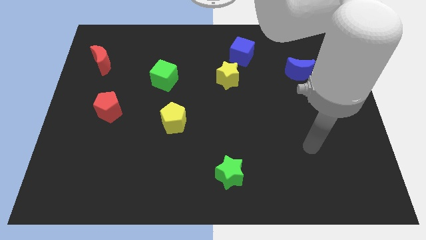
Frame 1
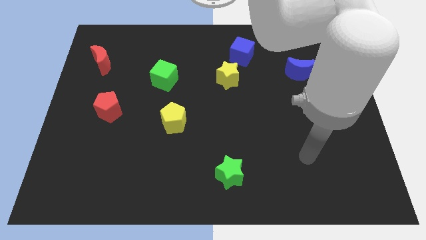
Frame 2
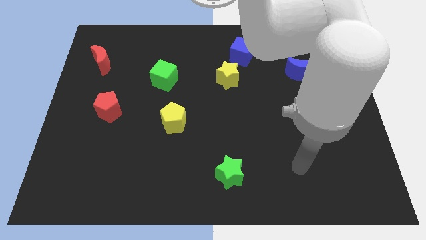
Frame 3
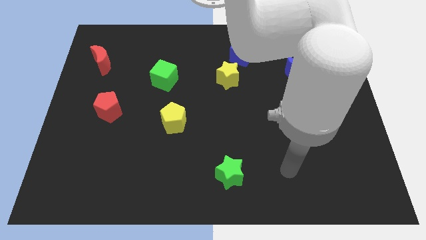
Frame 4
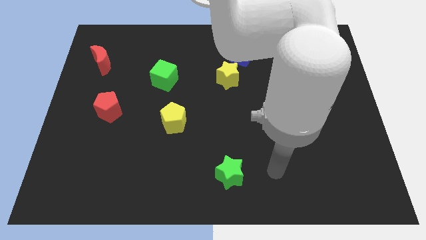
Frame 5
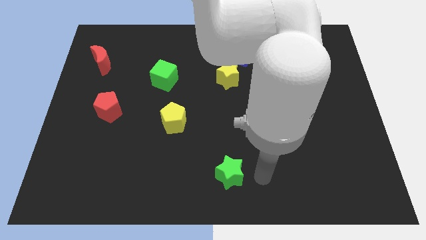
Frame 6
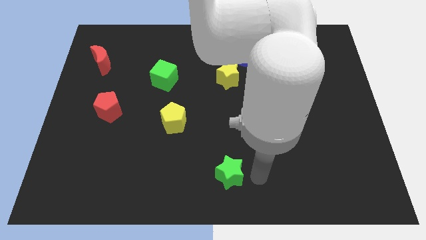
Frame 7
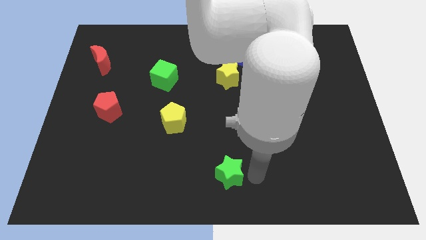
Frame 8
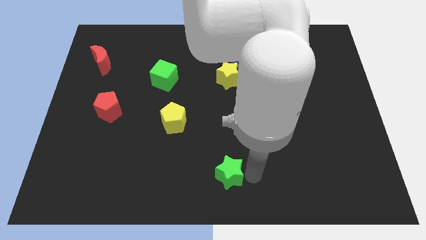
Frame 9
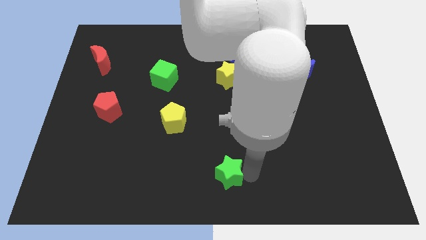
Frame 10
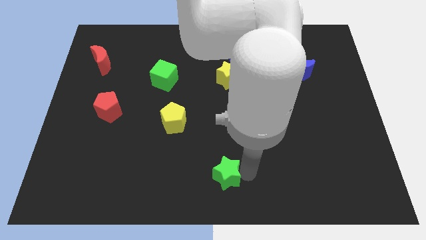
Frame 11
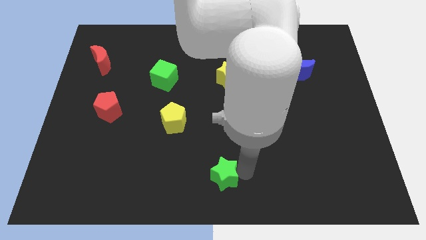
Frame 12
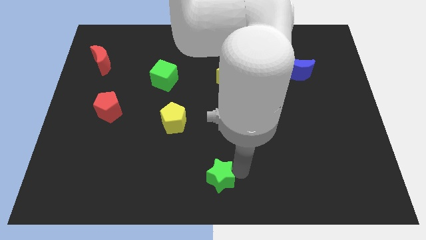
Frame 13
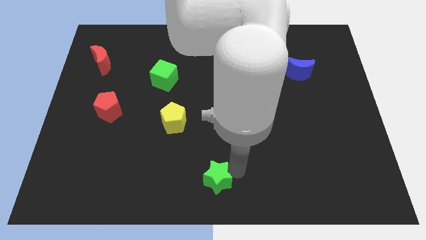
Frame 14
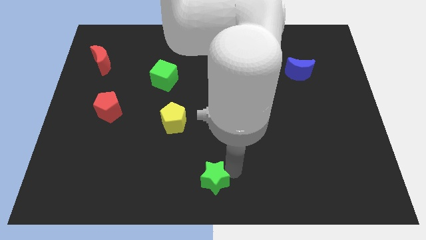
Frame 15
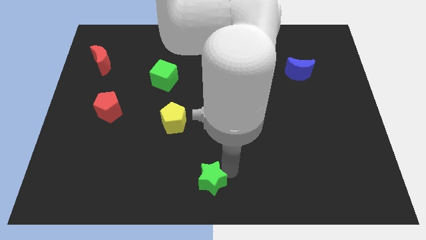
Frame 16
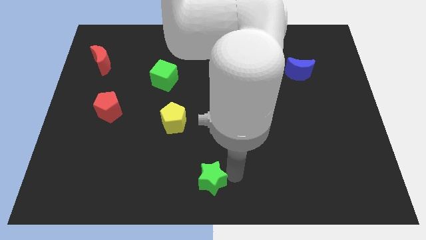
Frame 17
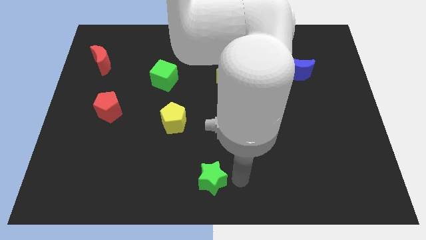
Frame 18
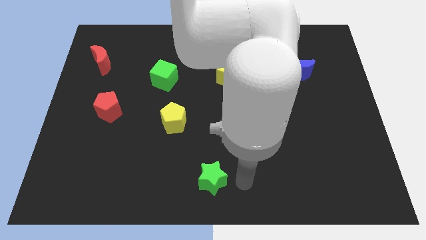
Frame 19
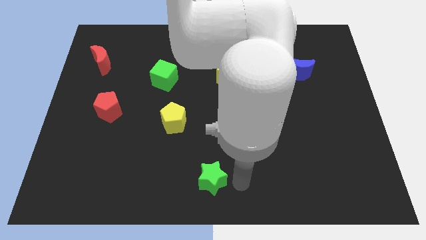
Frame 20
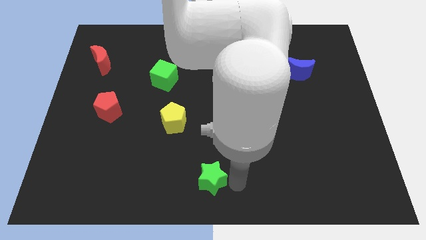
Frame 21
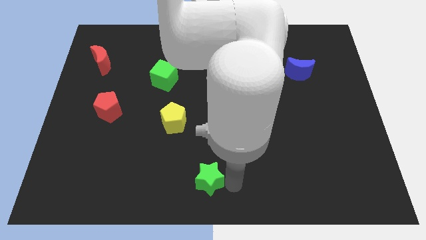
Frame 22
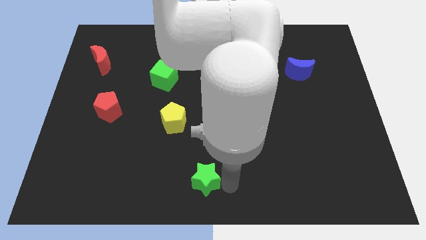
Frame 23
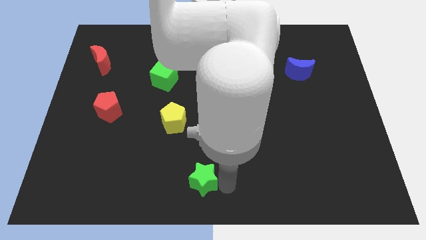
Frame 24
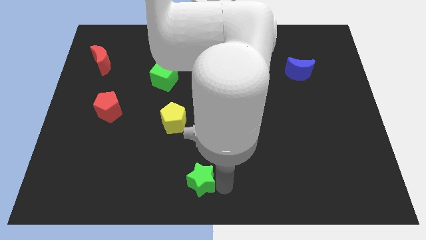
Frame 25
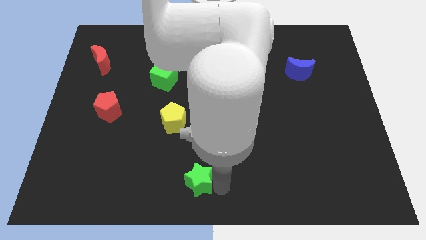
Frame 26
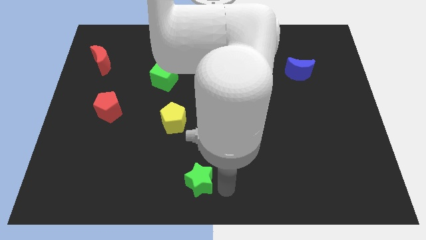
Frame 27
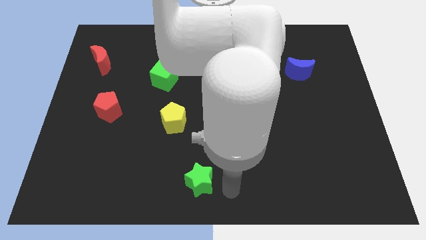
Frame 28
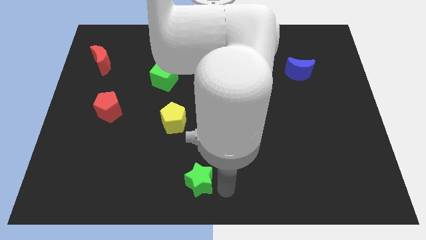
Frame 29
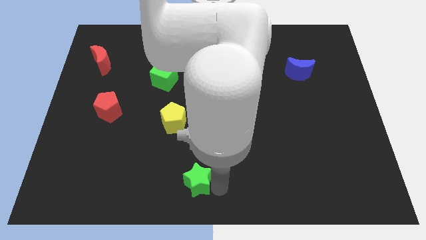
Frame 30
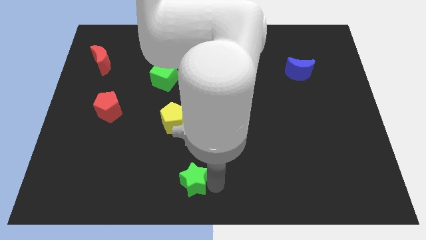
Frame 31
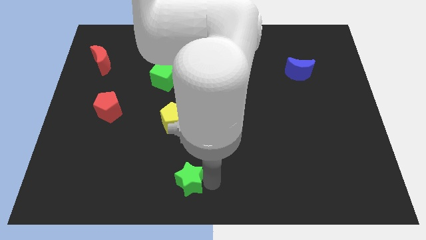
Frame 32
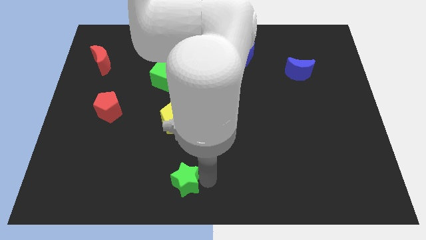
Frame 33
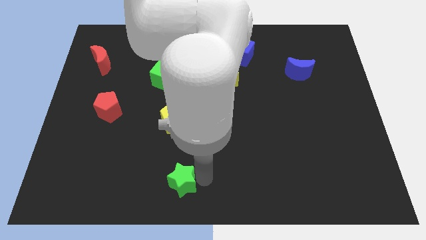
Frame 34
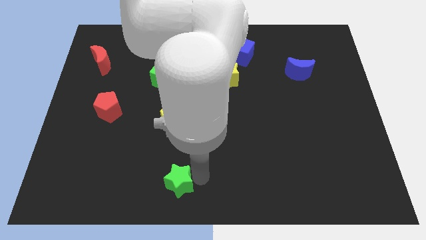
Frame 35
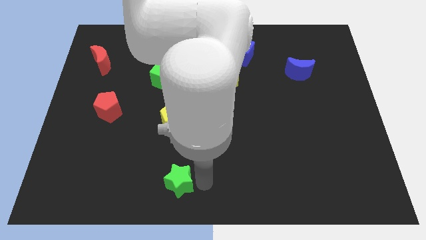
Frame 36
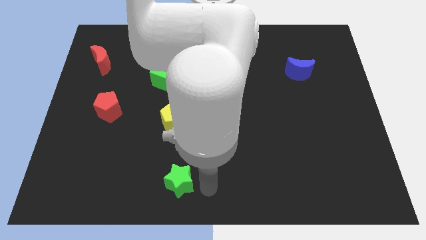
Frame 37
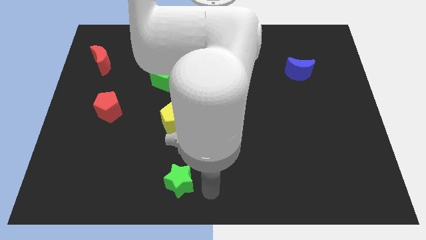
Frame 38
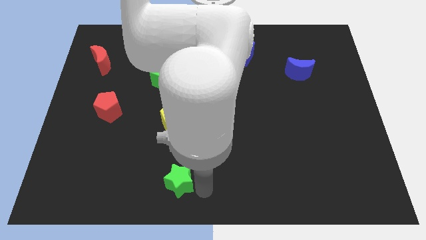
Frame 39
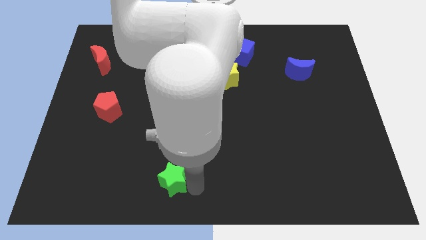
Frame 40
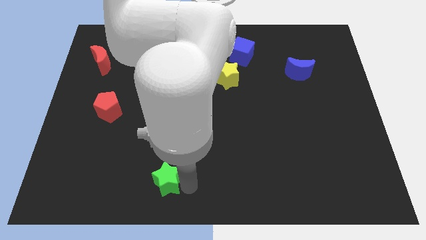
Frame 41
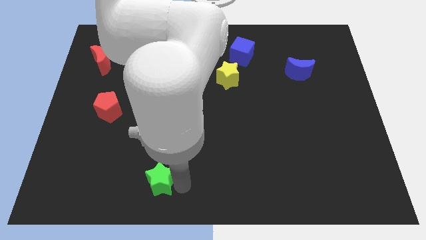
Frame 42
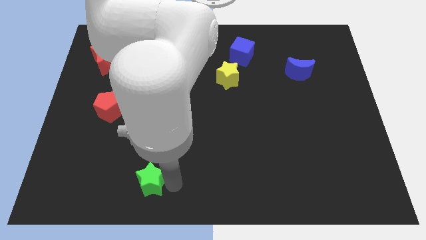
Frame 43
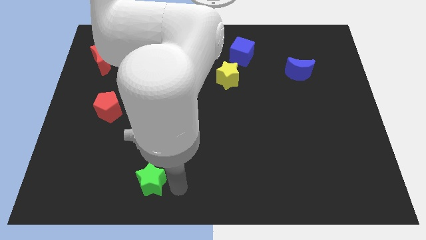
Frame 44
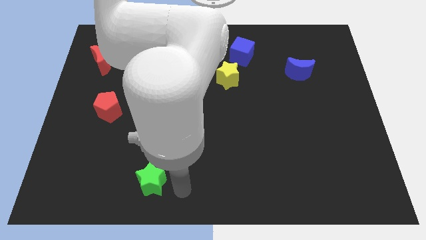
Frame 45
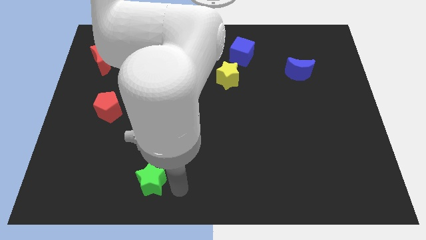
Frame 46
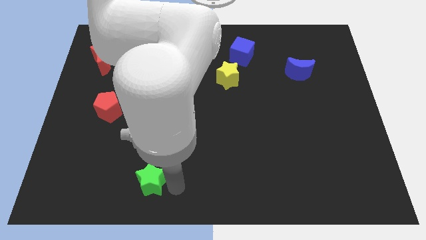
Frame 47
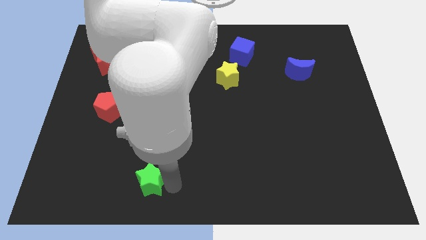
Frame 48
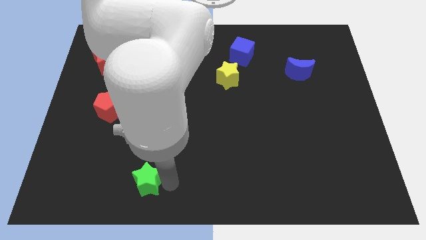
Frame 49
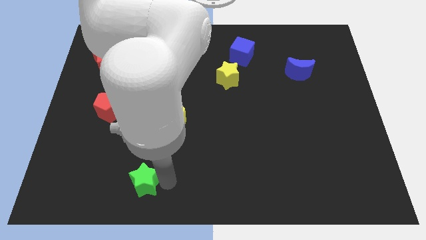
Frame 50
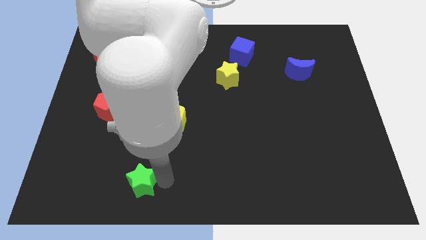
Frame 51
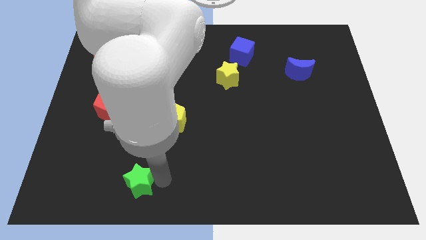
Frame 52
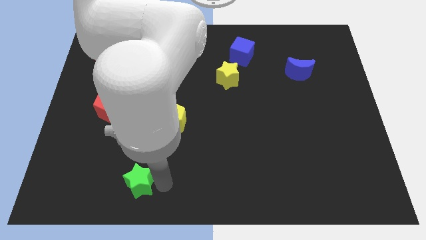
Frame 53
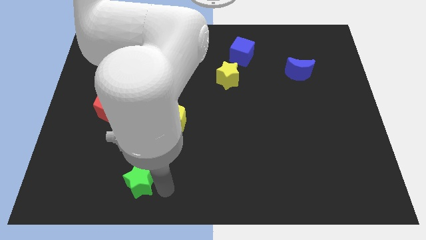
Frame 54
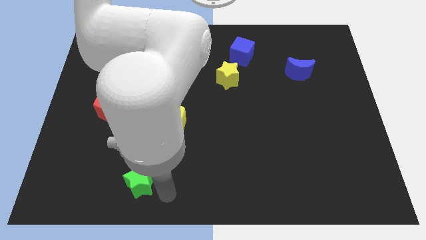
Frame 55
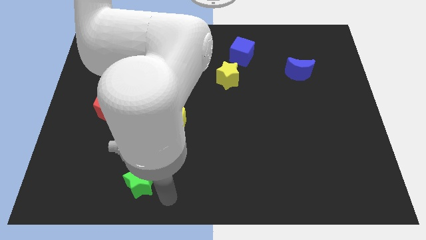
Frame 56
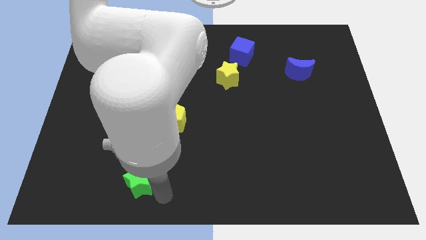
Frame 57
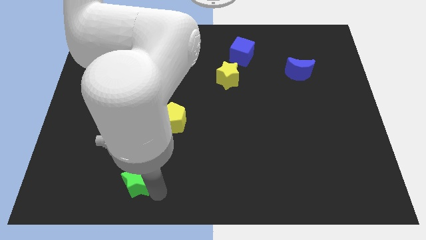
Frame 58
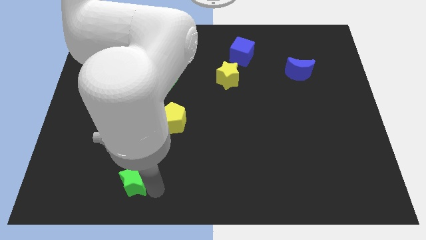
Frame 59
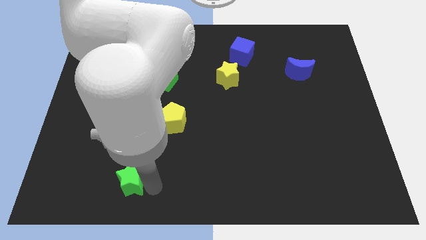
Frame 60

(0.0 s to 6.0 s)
slide the green star to the left

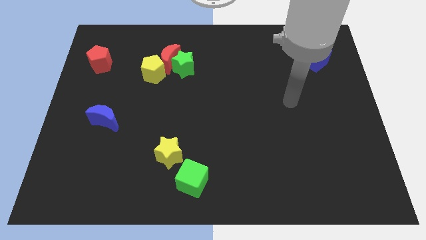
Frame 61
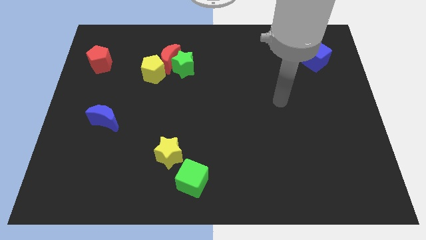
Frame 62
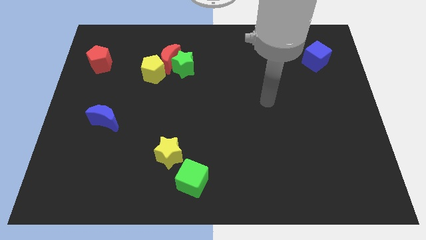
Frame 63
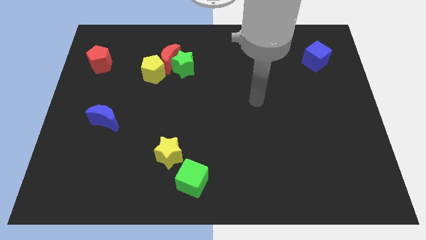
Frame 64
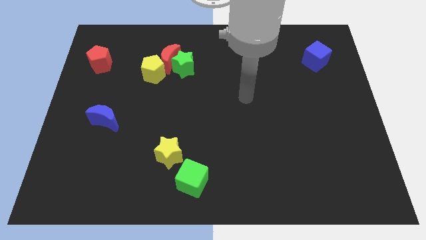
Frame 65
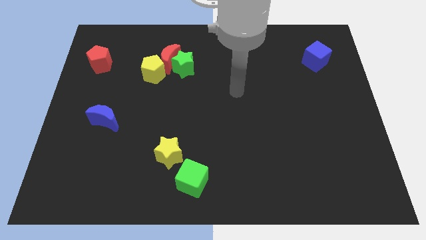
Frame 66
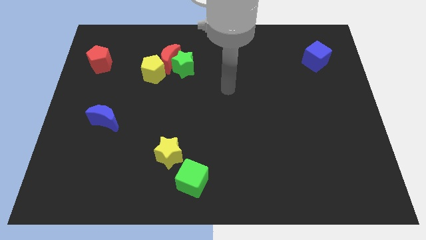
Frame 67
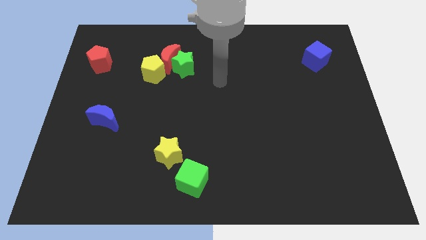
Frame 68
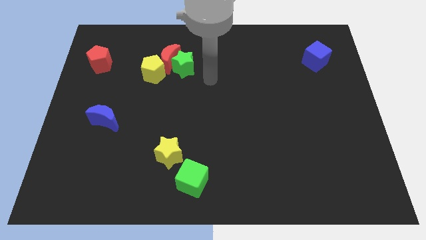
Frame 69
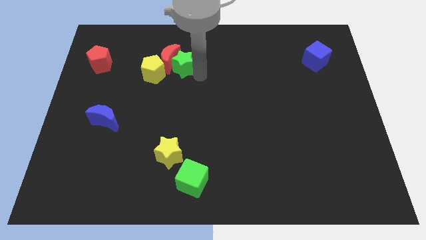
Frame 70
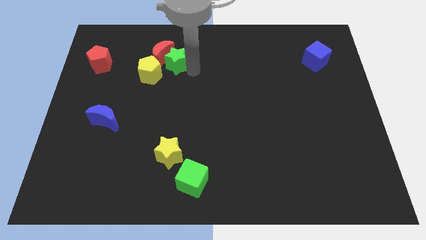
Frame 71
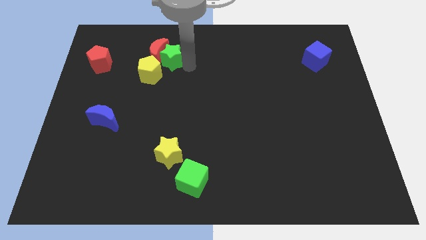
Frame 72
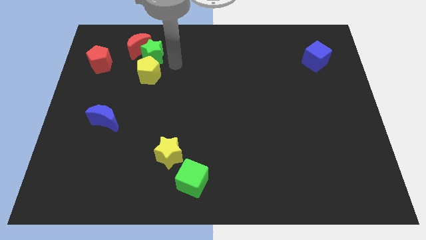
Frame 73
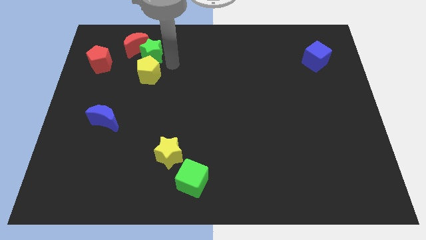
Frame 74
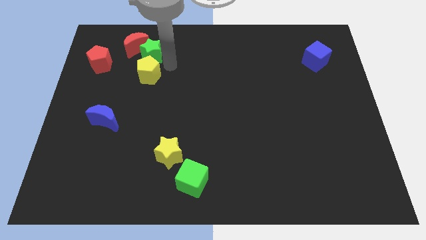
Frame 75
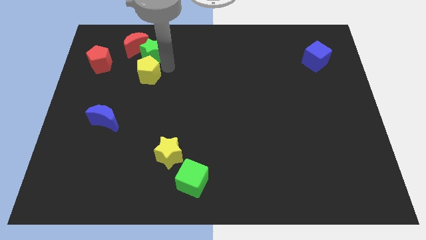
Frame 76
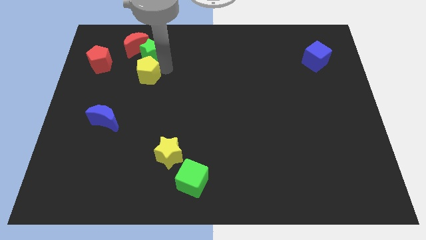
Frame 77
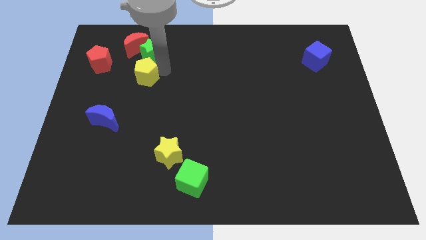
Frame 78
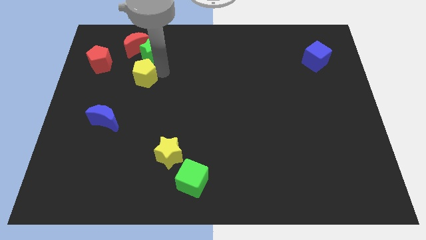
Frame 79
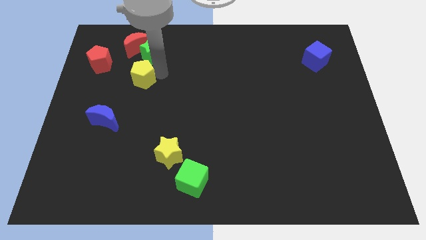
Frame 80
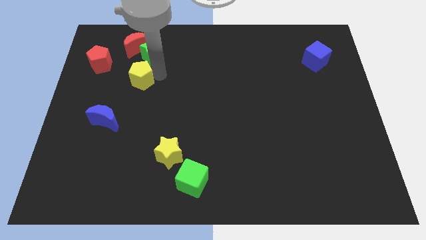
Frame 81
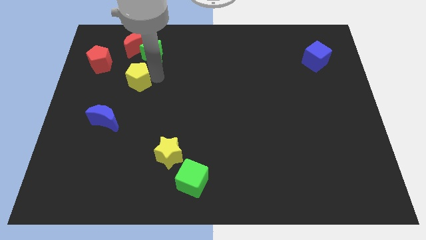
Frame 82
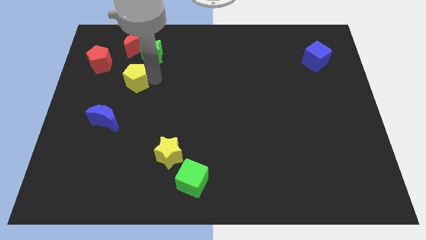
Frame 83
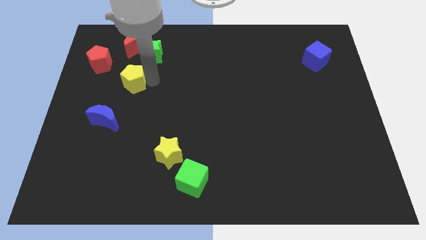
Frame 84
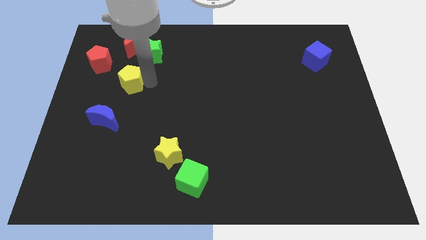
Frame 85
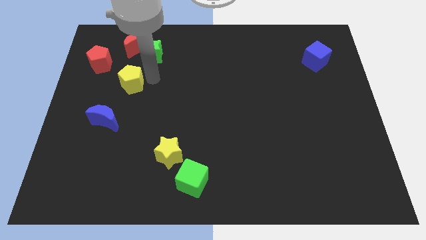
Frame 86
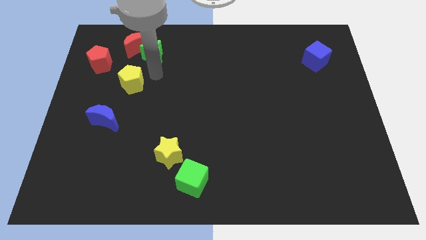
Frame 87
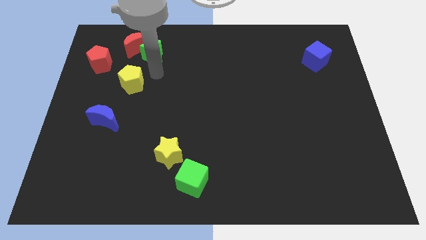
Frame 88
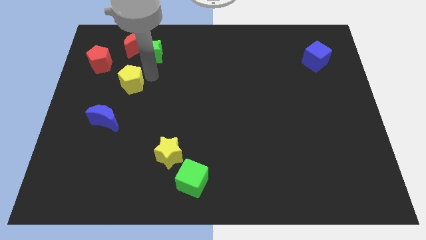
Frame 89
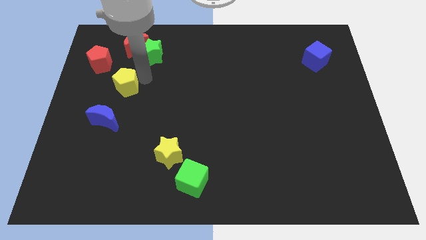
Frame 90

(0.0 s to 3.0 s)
slightly move the yellow pentagon down and to the left
